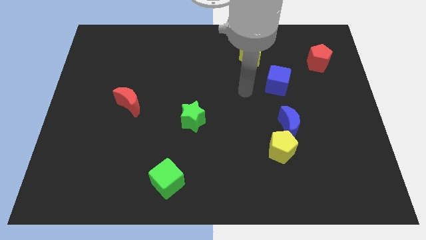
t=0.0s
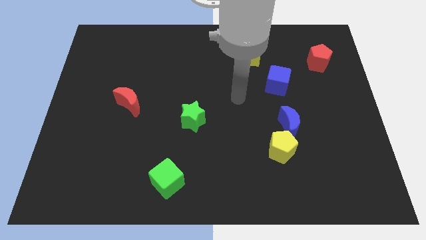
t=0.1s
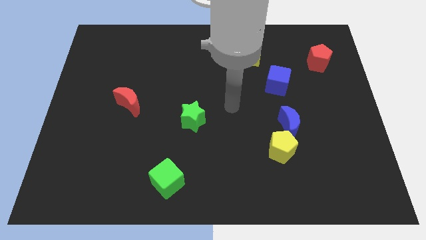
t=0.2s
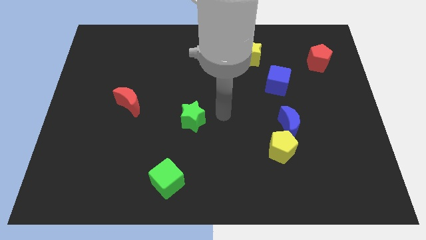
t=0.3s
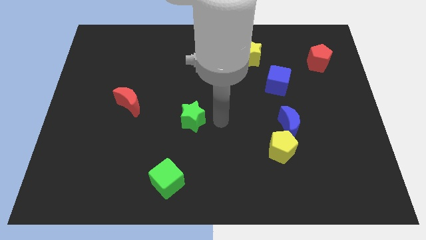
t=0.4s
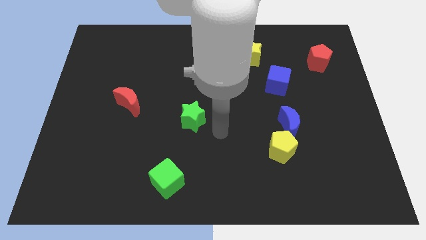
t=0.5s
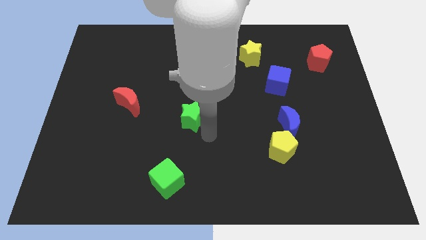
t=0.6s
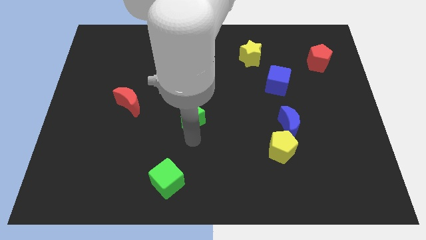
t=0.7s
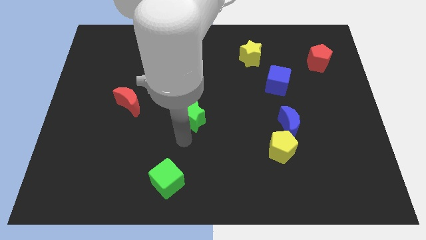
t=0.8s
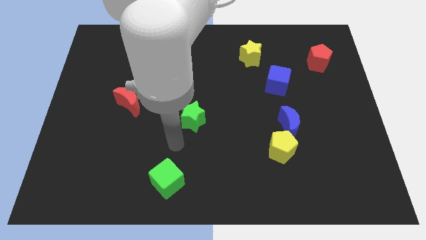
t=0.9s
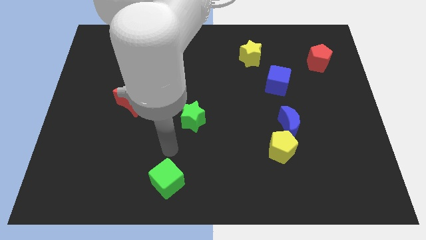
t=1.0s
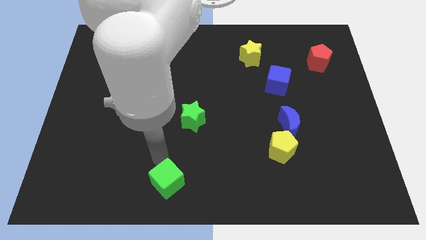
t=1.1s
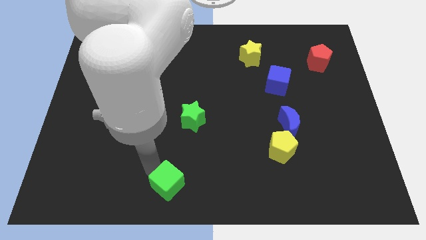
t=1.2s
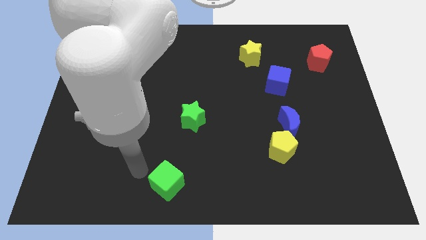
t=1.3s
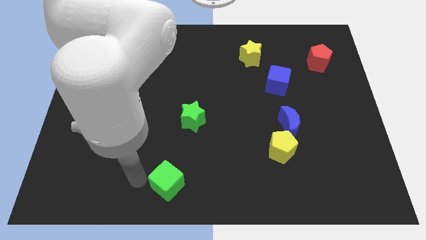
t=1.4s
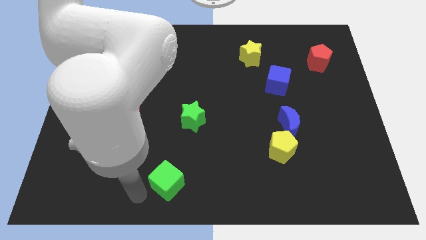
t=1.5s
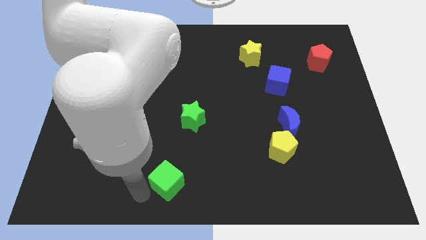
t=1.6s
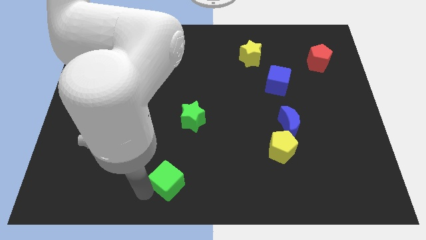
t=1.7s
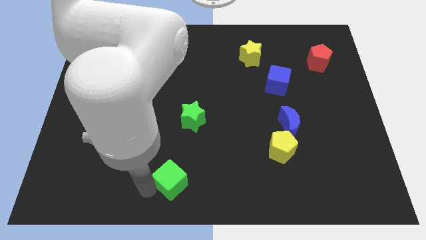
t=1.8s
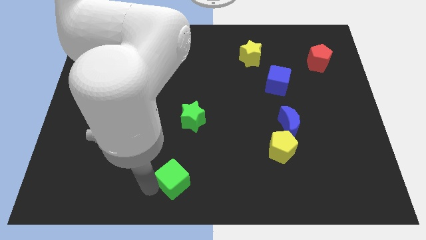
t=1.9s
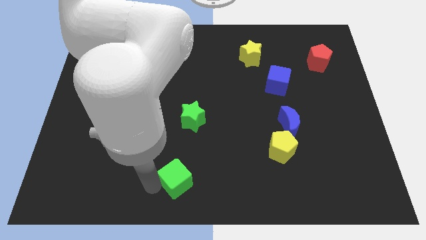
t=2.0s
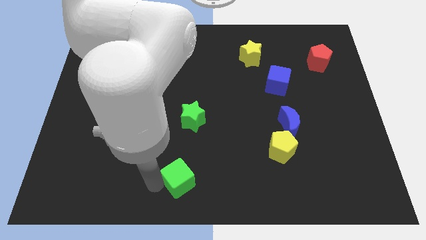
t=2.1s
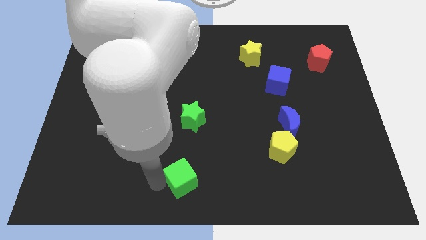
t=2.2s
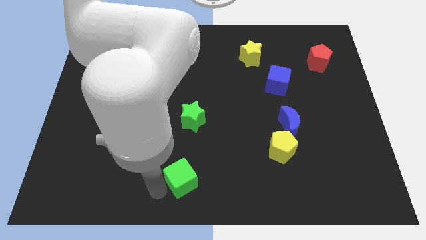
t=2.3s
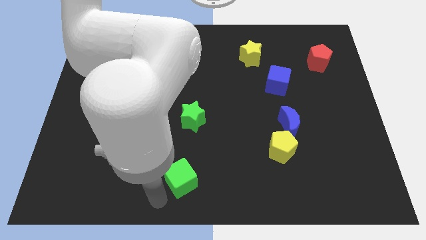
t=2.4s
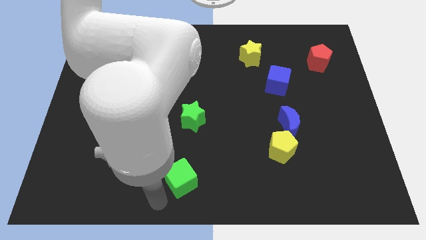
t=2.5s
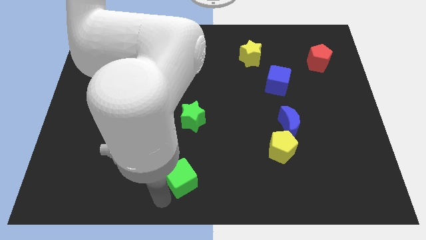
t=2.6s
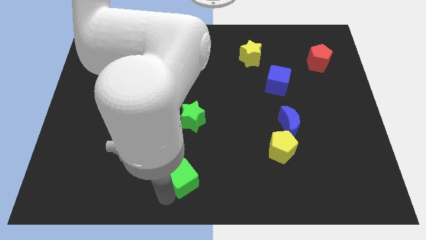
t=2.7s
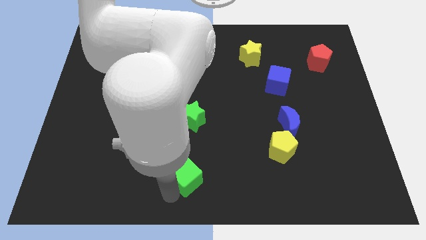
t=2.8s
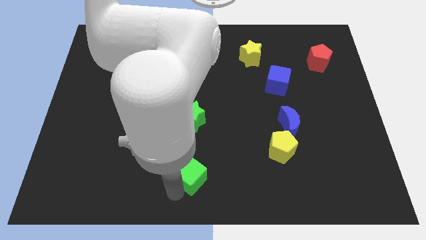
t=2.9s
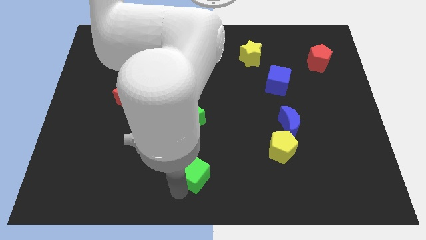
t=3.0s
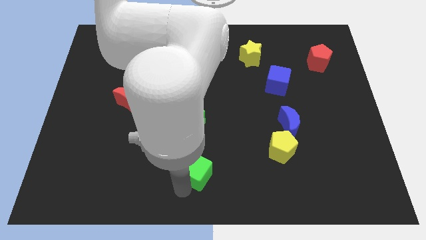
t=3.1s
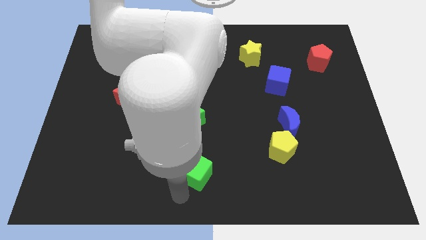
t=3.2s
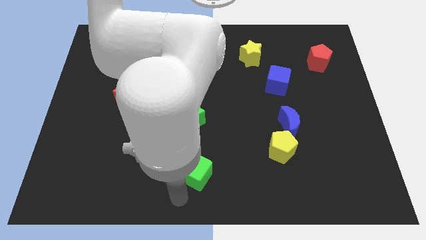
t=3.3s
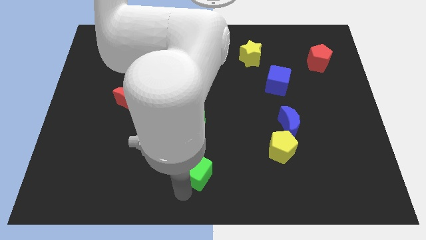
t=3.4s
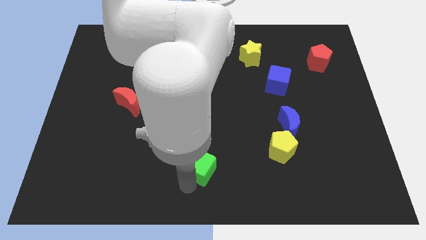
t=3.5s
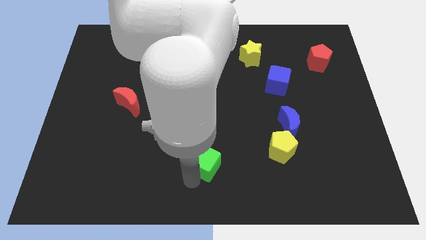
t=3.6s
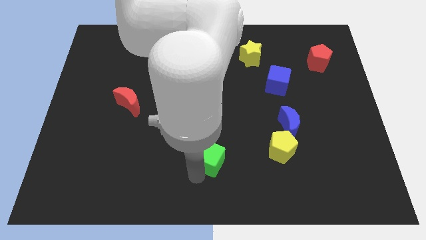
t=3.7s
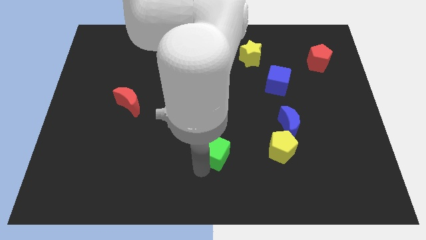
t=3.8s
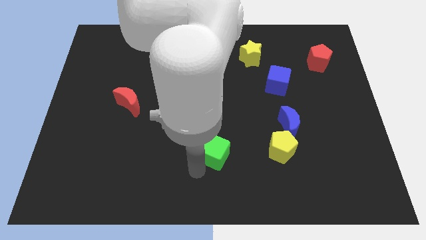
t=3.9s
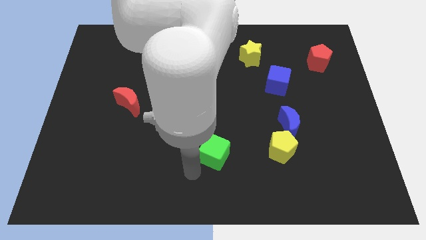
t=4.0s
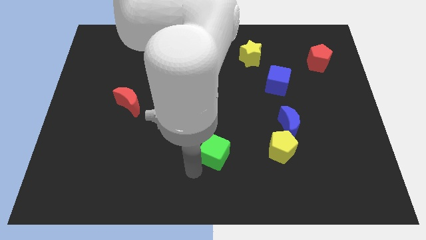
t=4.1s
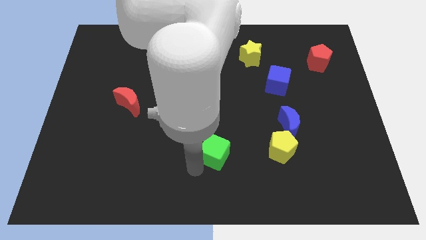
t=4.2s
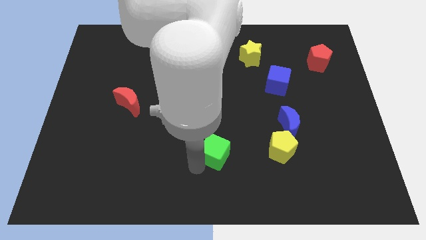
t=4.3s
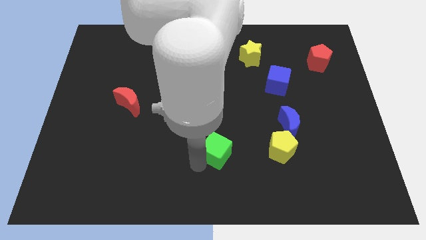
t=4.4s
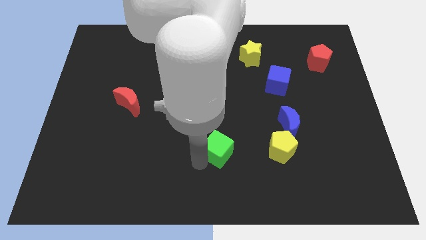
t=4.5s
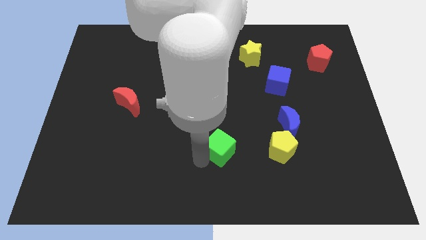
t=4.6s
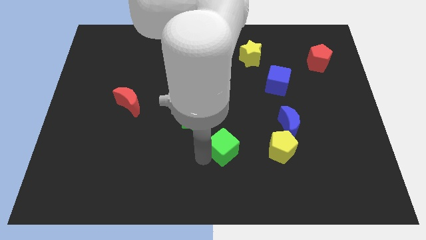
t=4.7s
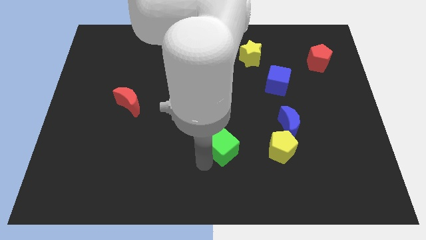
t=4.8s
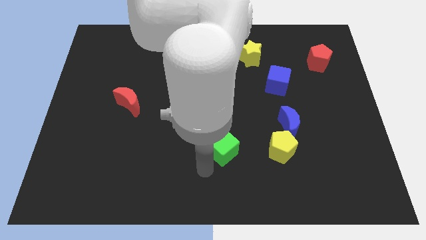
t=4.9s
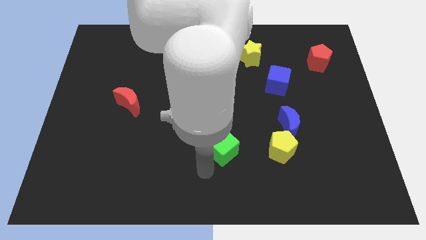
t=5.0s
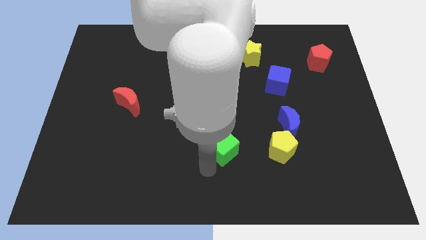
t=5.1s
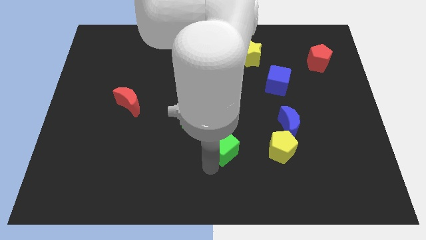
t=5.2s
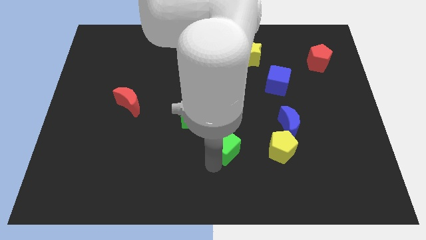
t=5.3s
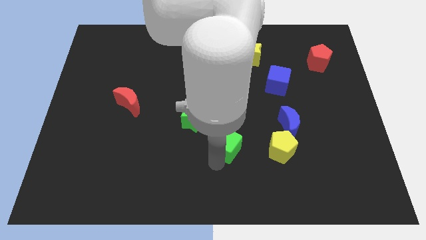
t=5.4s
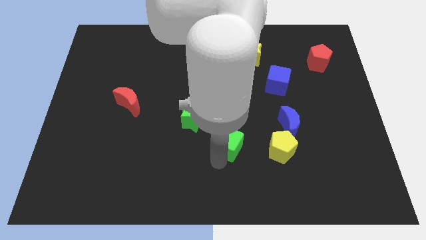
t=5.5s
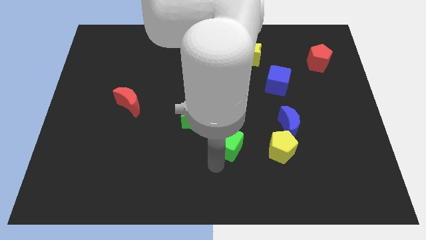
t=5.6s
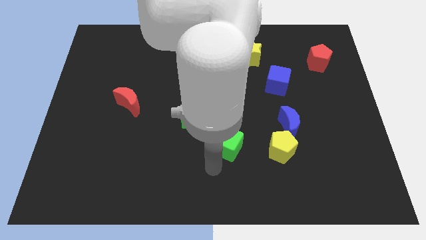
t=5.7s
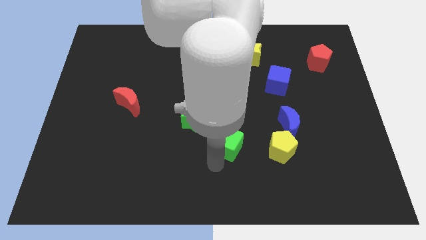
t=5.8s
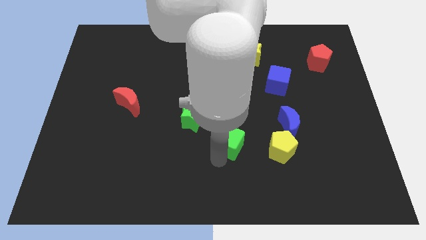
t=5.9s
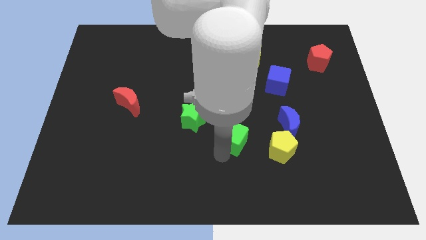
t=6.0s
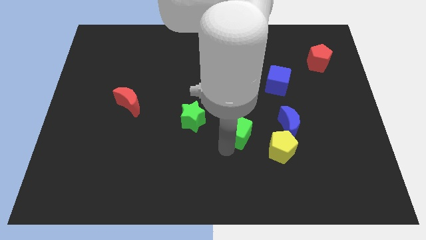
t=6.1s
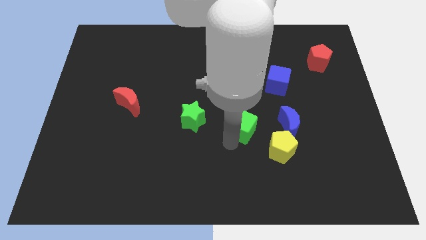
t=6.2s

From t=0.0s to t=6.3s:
push the green cube diagonally up and to the right

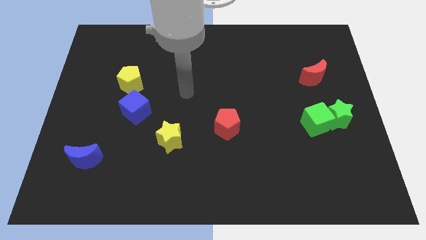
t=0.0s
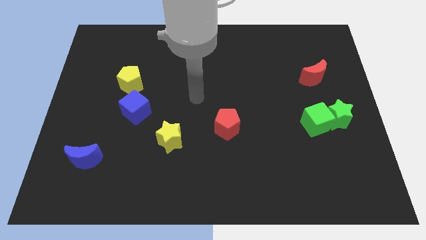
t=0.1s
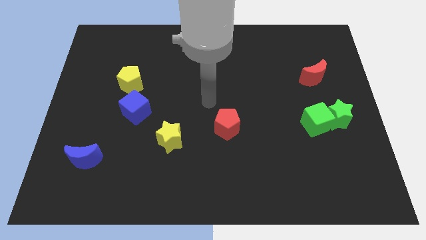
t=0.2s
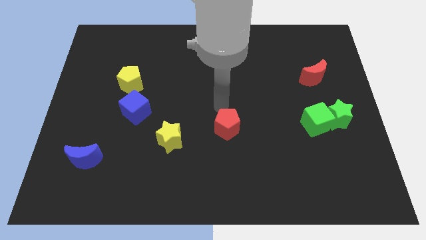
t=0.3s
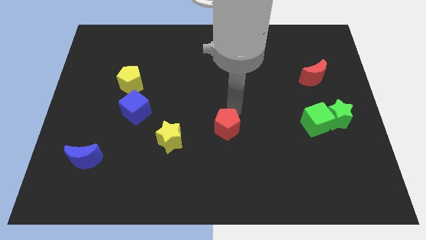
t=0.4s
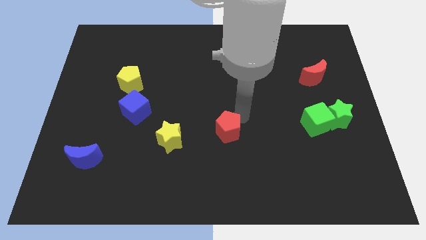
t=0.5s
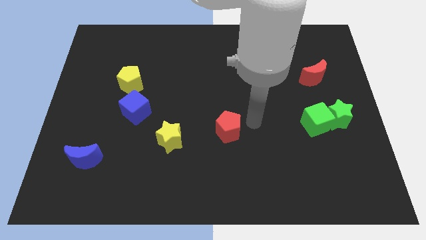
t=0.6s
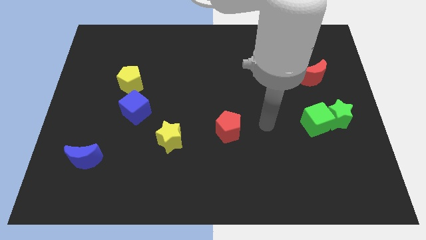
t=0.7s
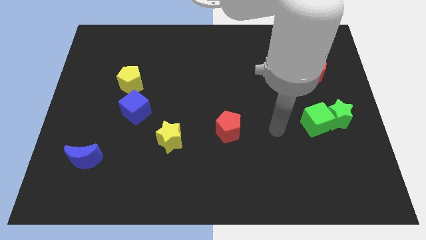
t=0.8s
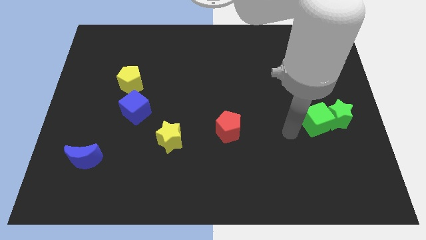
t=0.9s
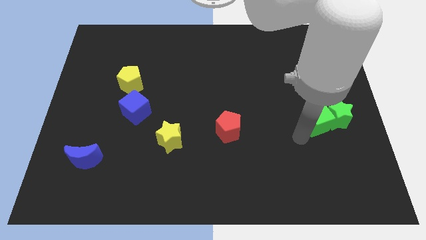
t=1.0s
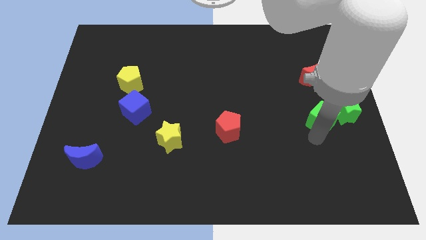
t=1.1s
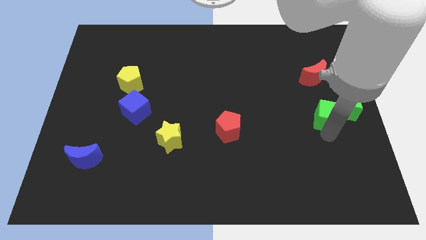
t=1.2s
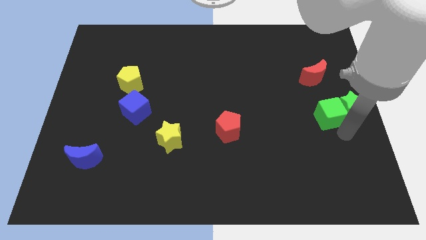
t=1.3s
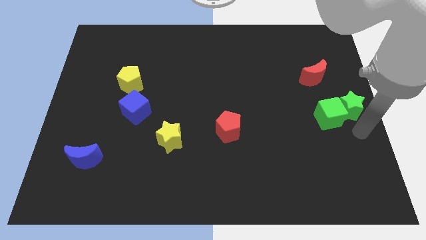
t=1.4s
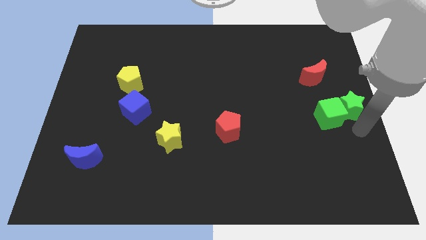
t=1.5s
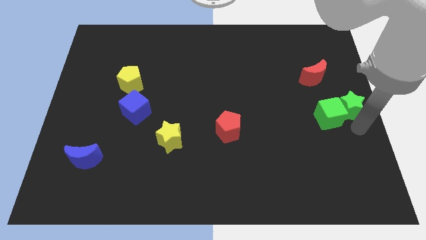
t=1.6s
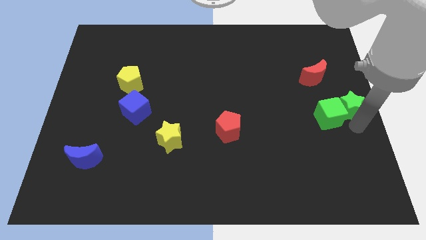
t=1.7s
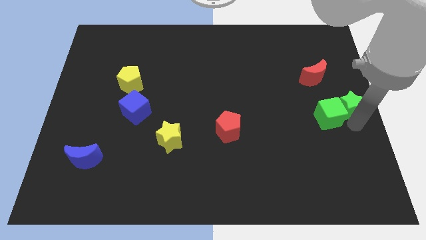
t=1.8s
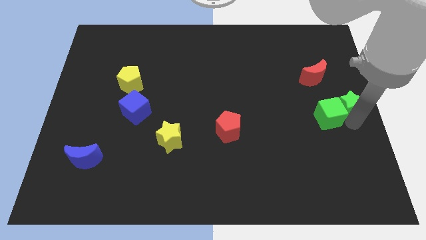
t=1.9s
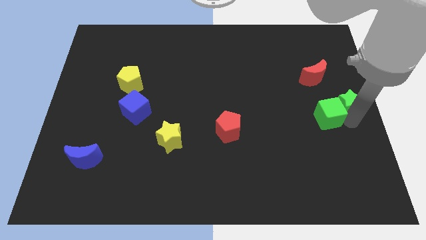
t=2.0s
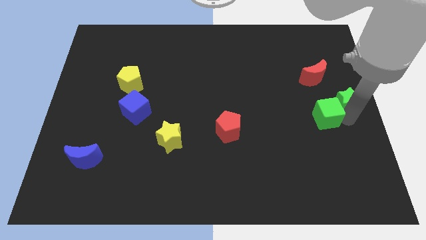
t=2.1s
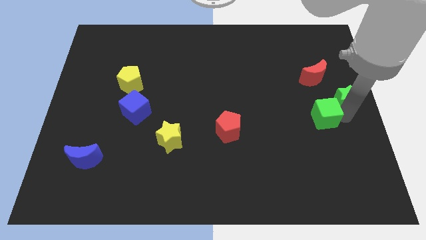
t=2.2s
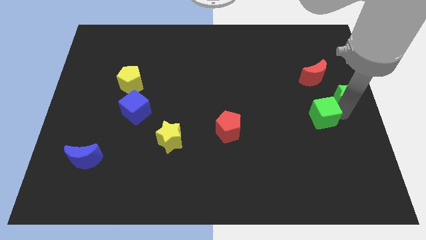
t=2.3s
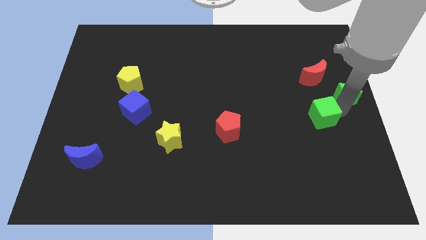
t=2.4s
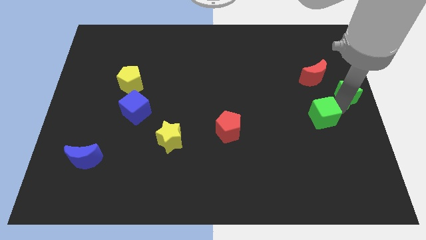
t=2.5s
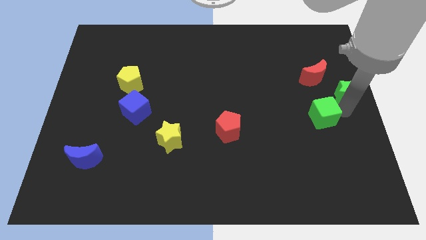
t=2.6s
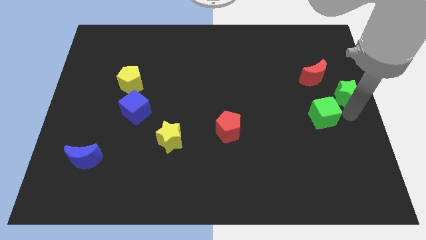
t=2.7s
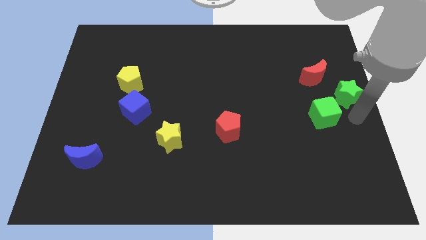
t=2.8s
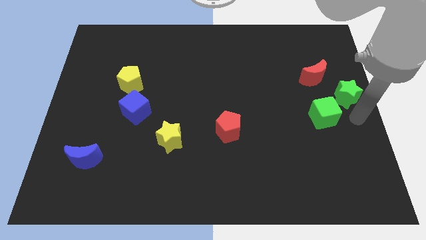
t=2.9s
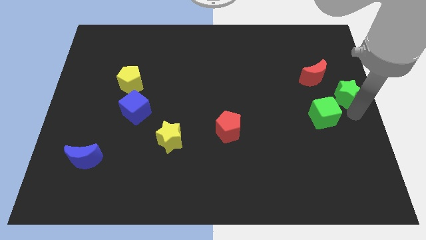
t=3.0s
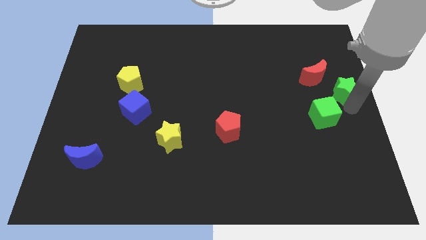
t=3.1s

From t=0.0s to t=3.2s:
move the green star somewhat upwards
